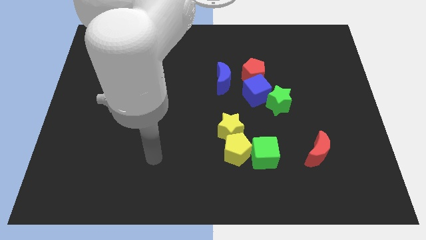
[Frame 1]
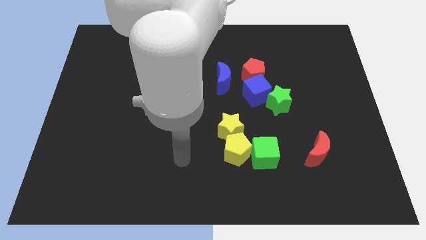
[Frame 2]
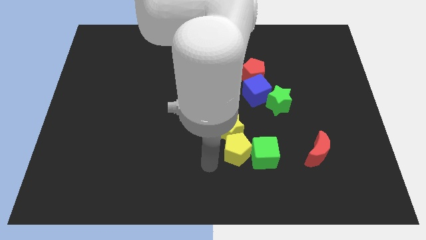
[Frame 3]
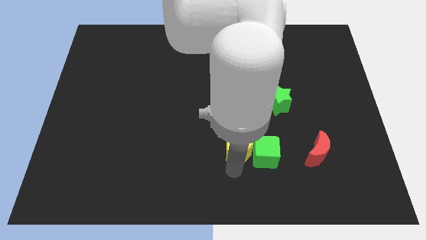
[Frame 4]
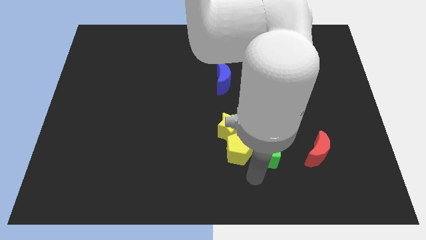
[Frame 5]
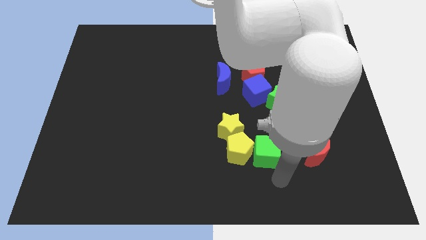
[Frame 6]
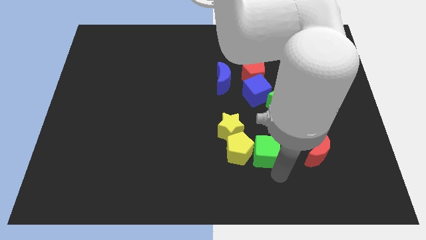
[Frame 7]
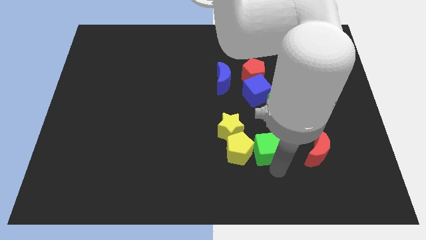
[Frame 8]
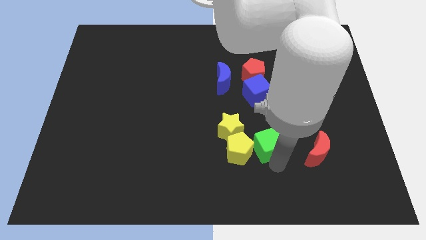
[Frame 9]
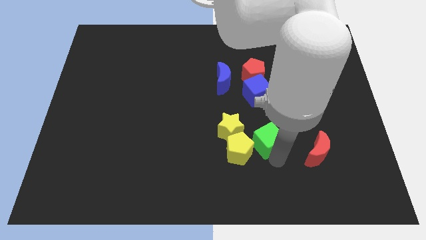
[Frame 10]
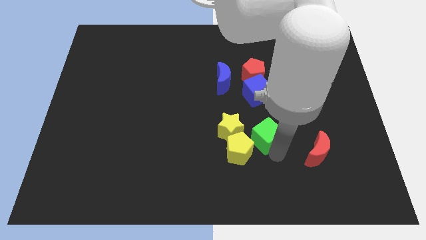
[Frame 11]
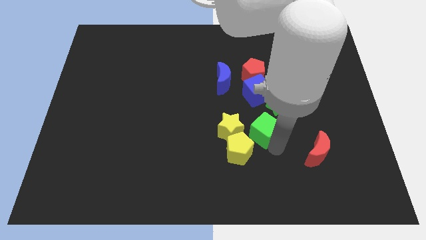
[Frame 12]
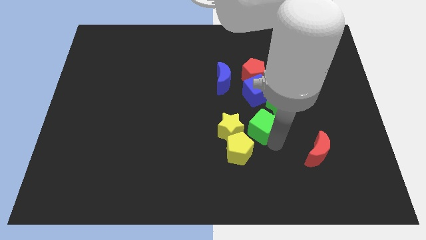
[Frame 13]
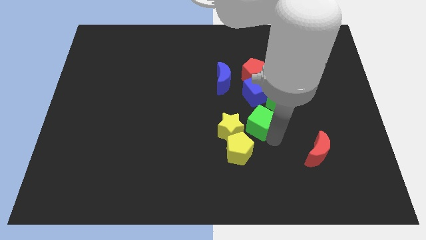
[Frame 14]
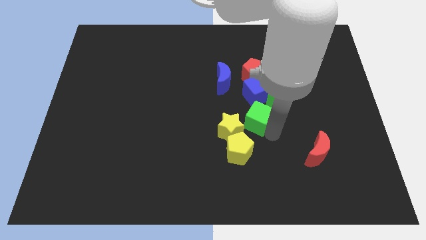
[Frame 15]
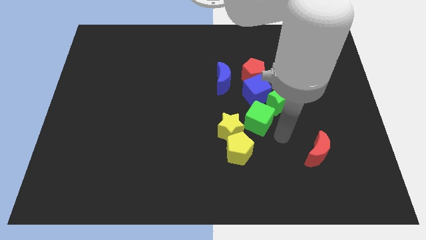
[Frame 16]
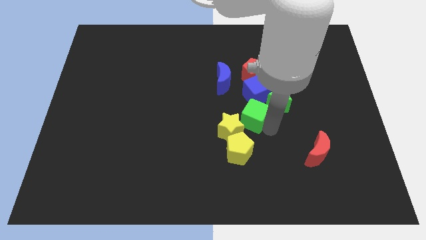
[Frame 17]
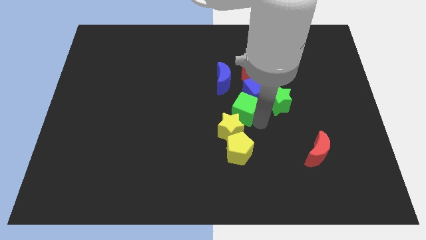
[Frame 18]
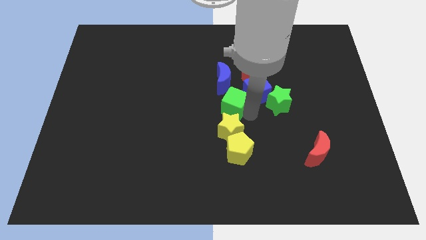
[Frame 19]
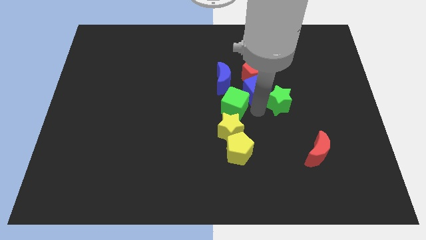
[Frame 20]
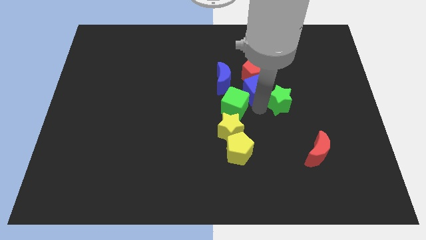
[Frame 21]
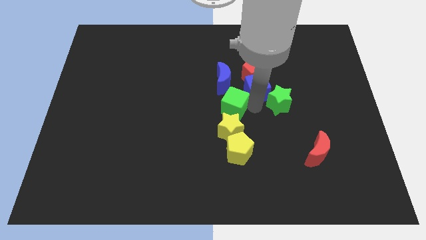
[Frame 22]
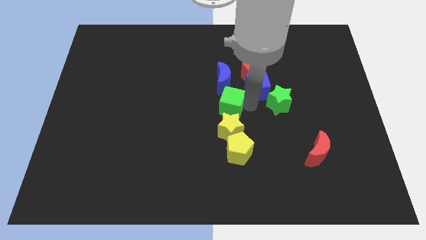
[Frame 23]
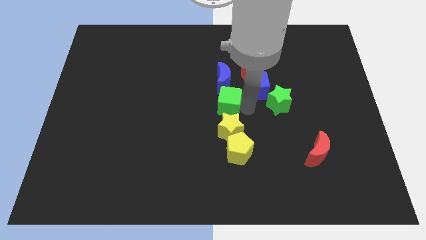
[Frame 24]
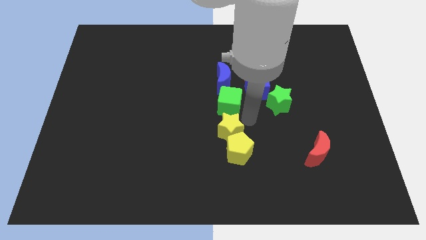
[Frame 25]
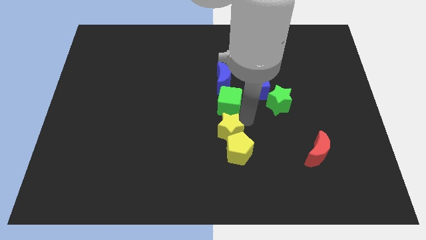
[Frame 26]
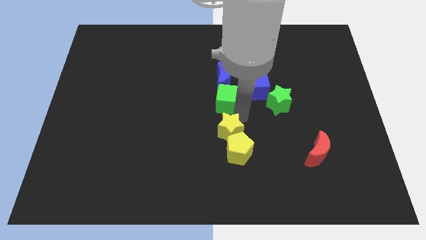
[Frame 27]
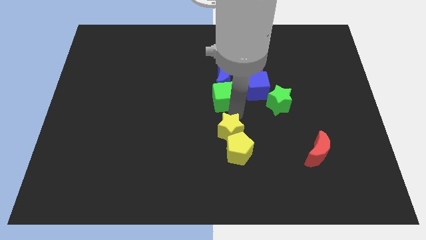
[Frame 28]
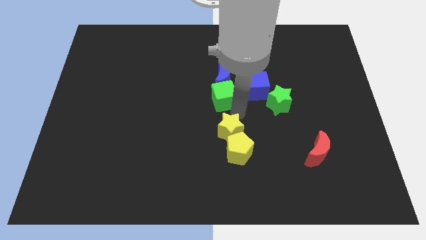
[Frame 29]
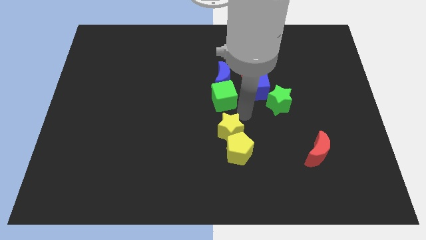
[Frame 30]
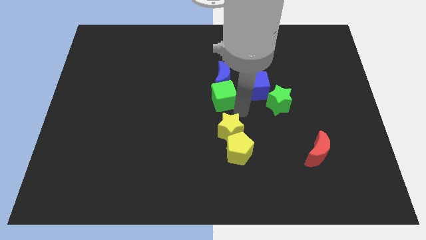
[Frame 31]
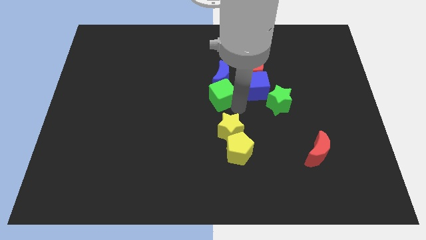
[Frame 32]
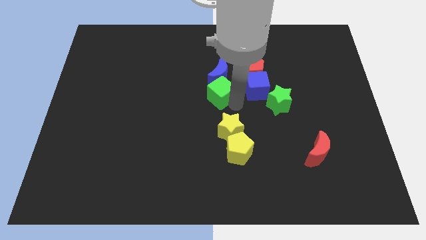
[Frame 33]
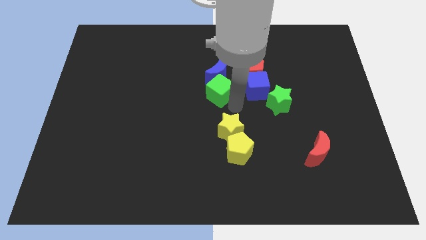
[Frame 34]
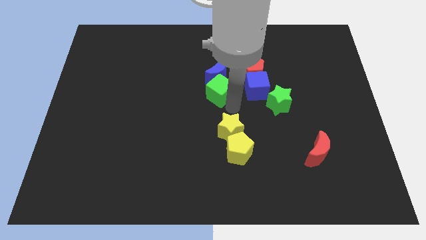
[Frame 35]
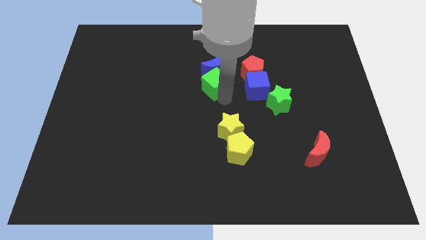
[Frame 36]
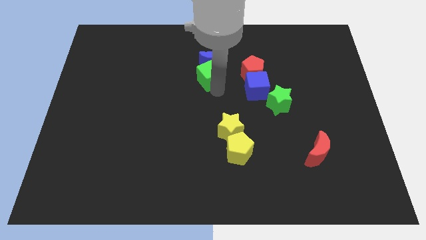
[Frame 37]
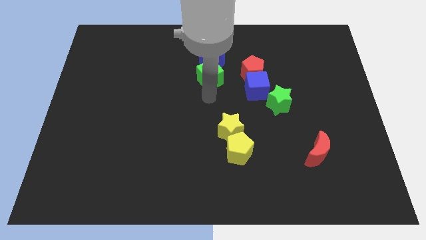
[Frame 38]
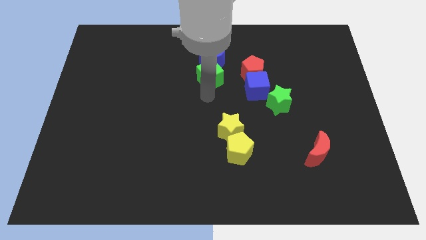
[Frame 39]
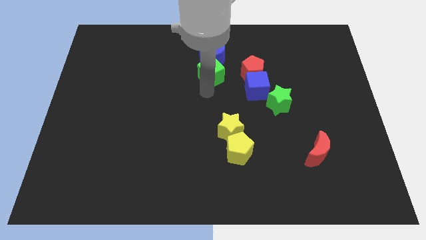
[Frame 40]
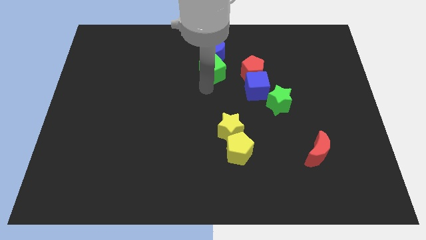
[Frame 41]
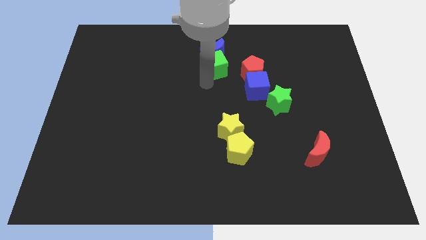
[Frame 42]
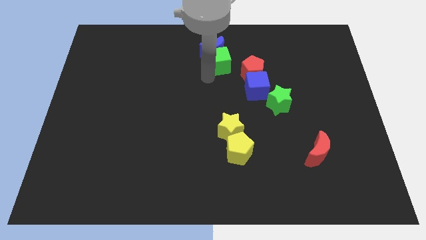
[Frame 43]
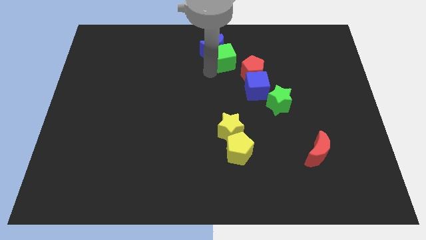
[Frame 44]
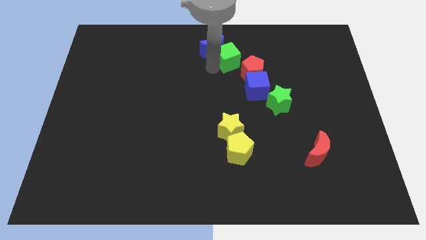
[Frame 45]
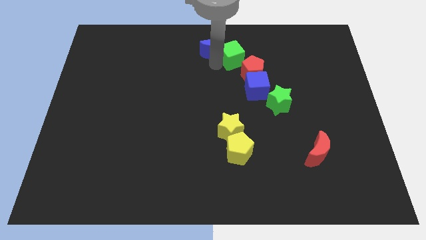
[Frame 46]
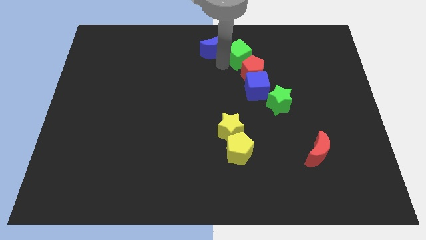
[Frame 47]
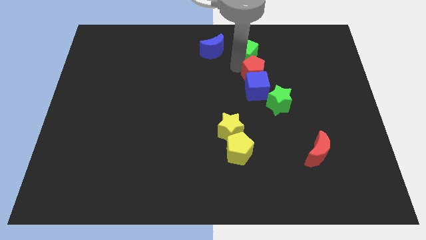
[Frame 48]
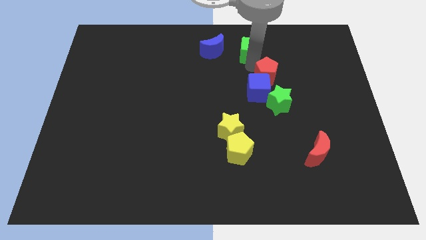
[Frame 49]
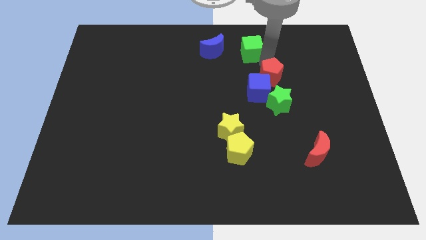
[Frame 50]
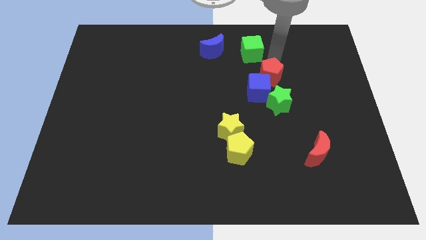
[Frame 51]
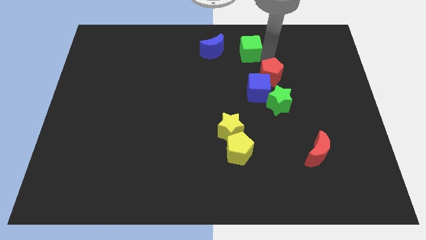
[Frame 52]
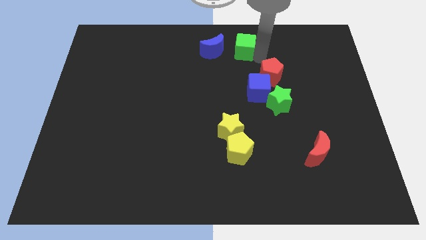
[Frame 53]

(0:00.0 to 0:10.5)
push the green cube to the towards your base
